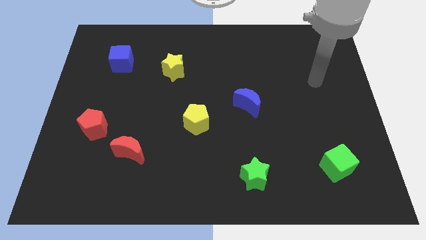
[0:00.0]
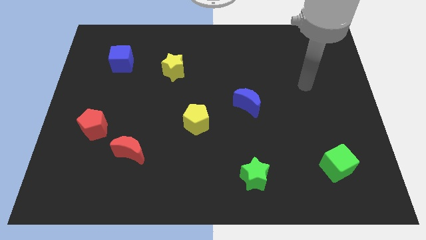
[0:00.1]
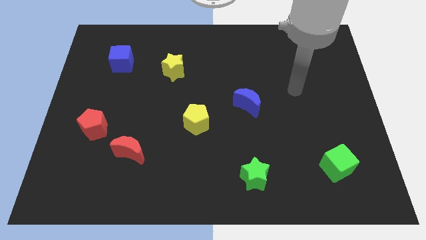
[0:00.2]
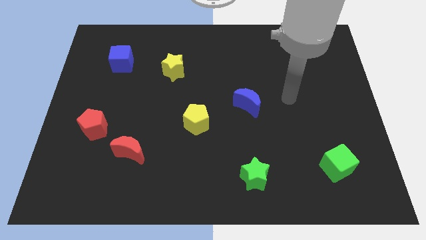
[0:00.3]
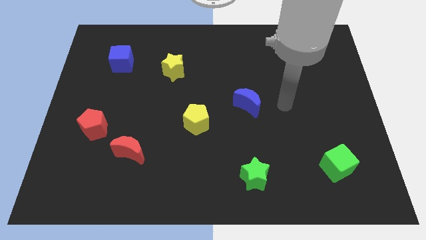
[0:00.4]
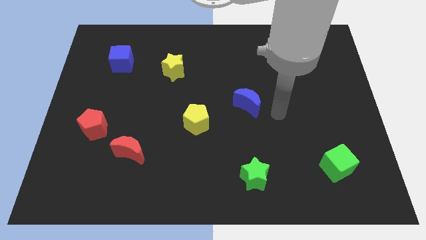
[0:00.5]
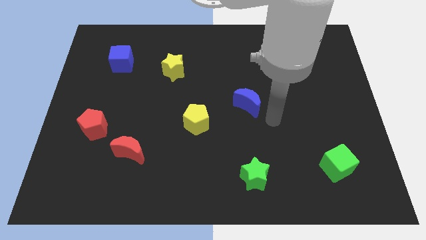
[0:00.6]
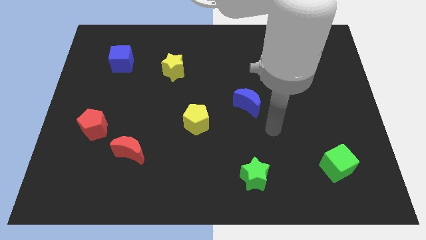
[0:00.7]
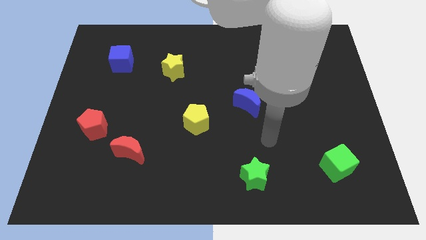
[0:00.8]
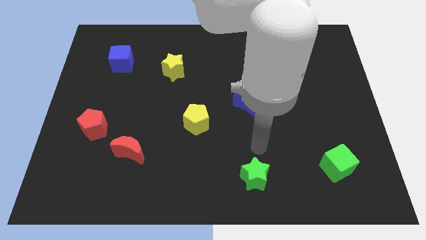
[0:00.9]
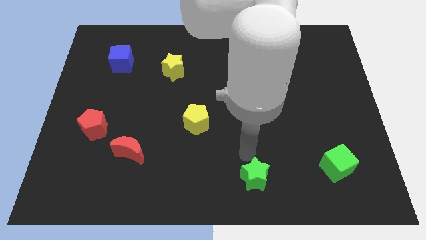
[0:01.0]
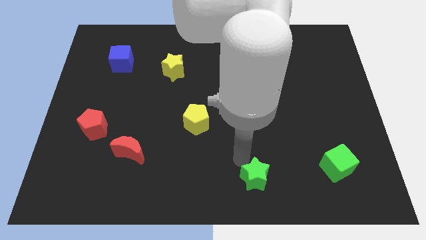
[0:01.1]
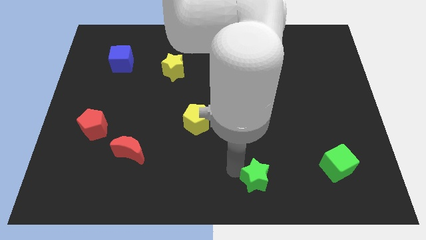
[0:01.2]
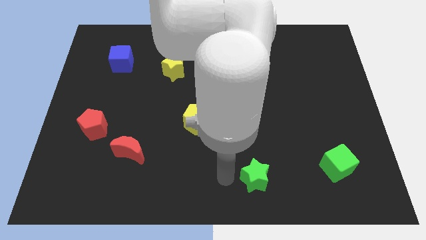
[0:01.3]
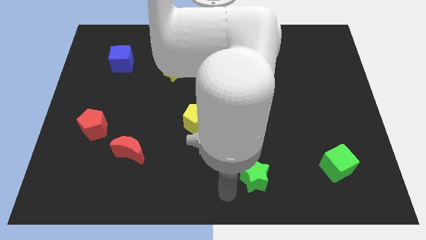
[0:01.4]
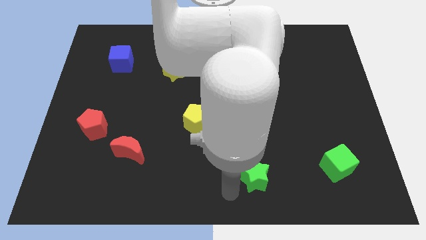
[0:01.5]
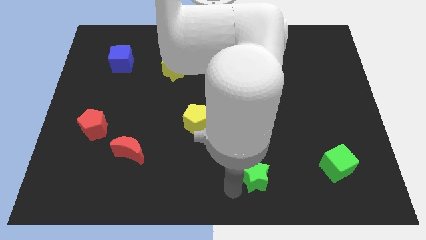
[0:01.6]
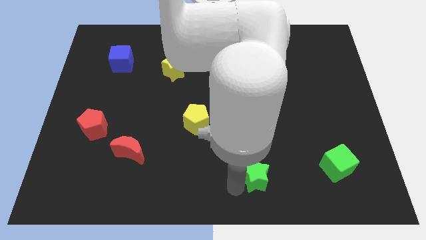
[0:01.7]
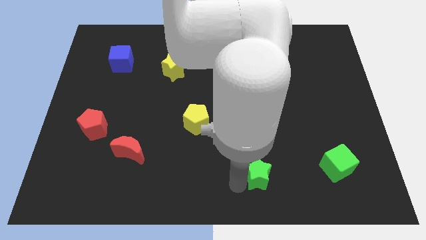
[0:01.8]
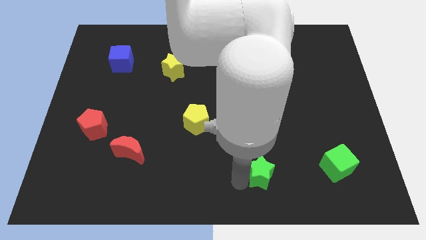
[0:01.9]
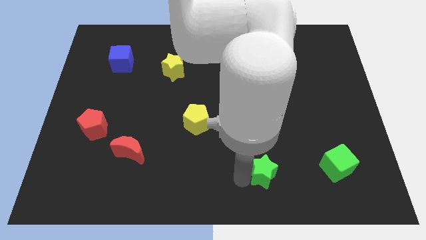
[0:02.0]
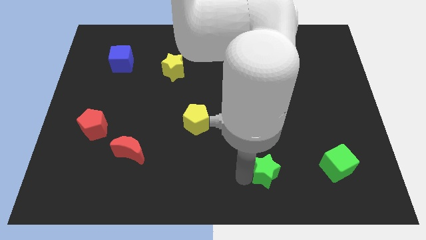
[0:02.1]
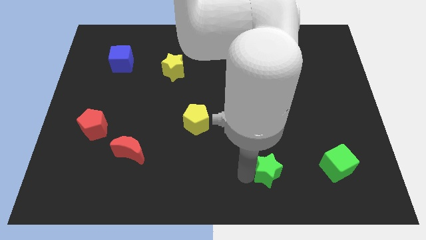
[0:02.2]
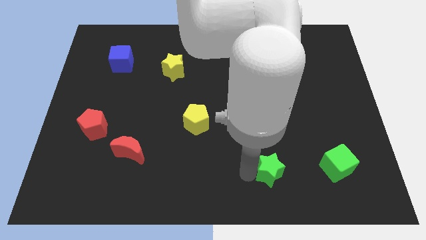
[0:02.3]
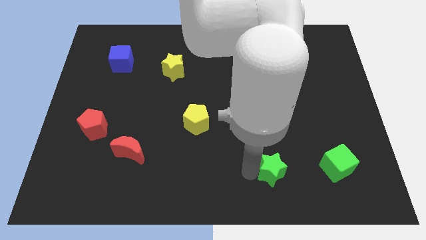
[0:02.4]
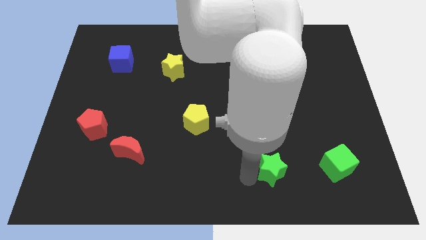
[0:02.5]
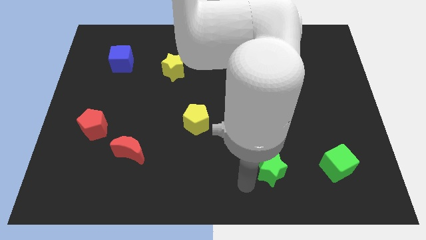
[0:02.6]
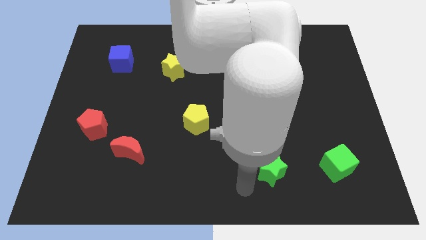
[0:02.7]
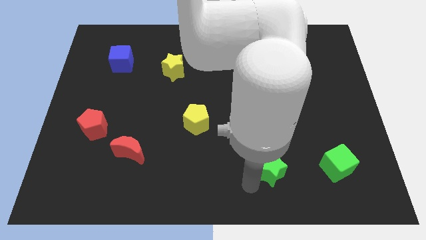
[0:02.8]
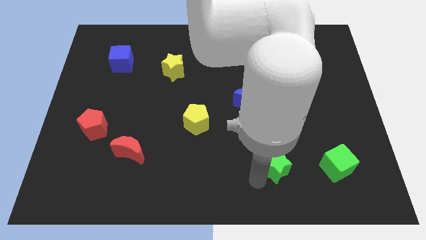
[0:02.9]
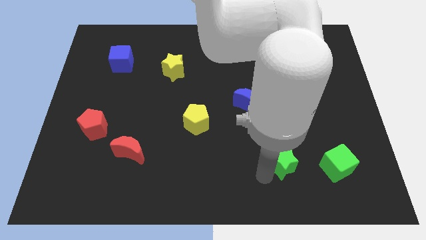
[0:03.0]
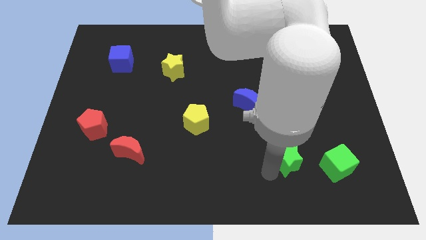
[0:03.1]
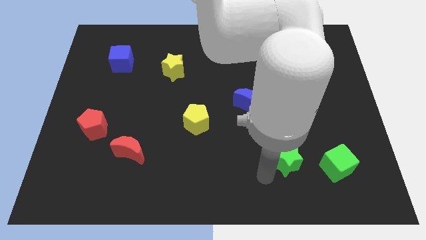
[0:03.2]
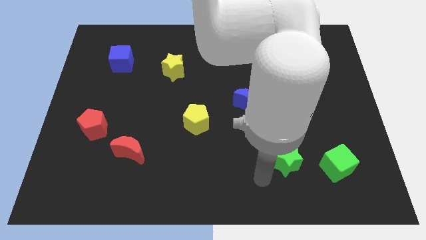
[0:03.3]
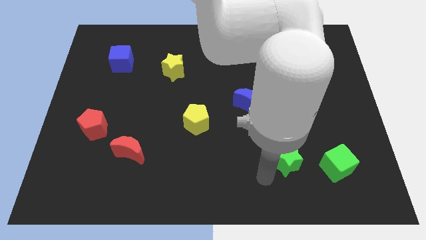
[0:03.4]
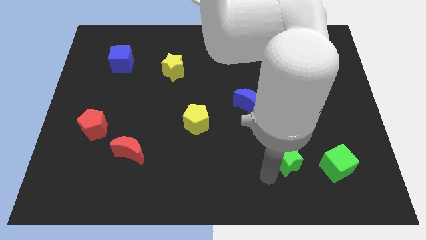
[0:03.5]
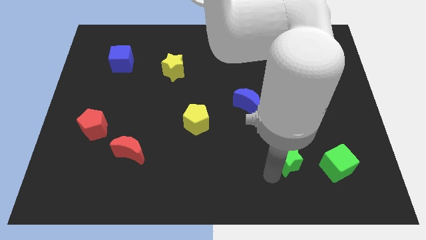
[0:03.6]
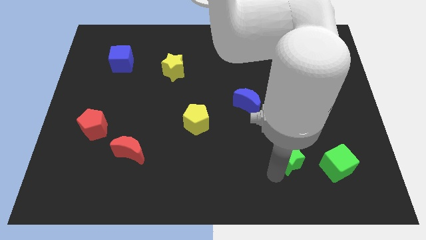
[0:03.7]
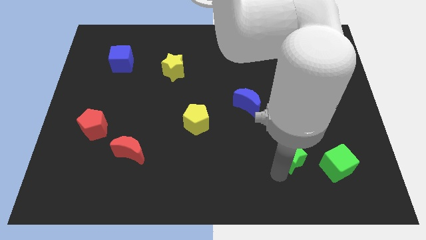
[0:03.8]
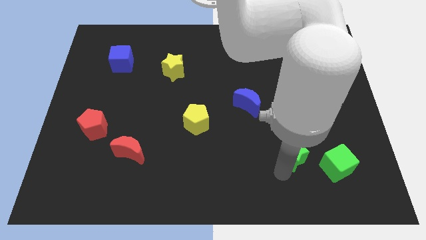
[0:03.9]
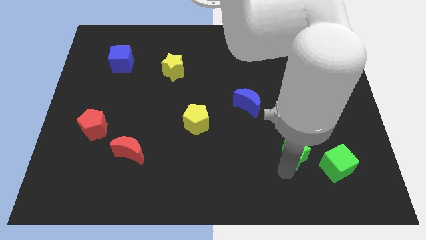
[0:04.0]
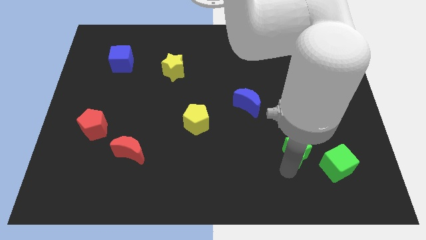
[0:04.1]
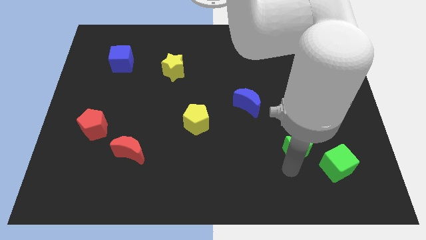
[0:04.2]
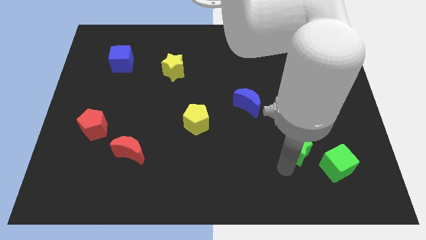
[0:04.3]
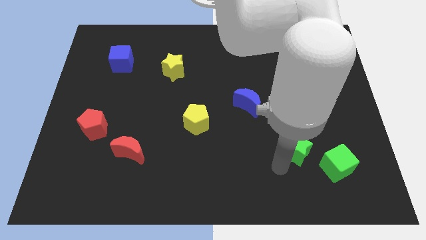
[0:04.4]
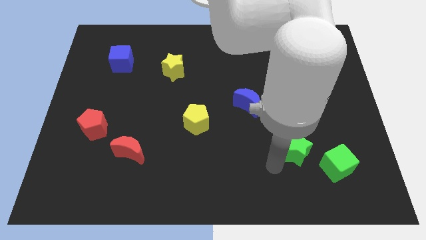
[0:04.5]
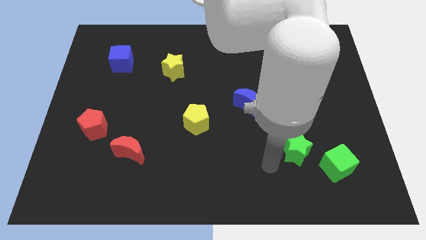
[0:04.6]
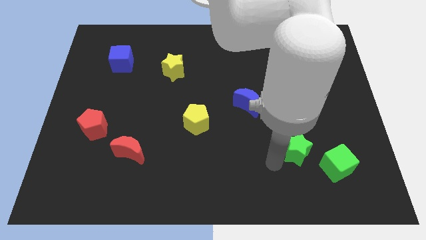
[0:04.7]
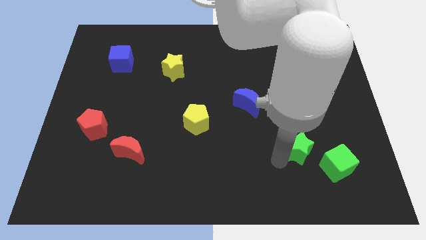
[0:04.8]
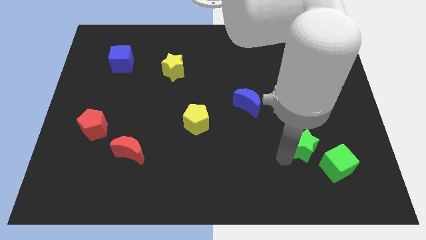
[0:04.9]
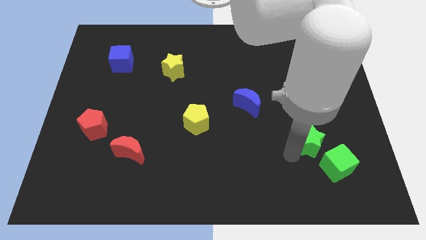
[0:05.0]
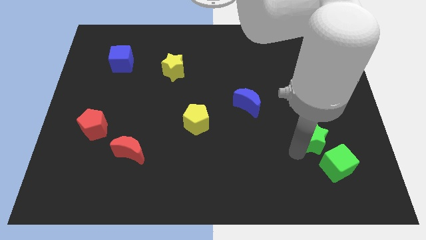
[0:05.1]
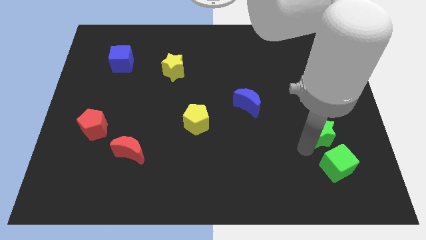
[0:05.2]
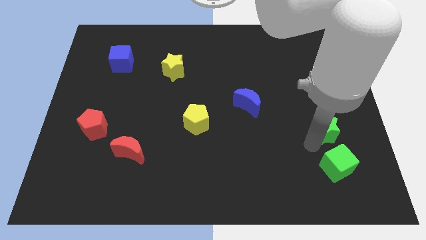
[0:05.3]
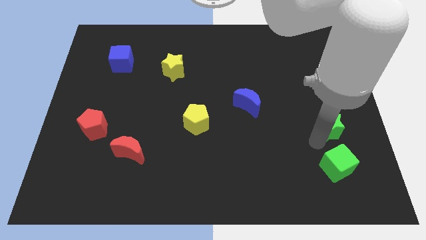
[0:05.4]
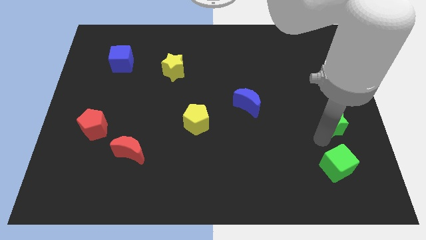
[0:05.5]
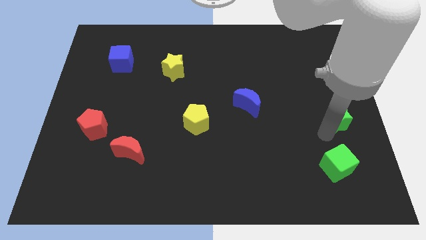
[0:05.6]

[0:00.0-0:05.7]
push the green star to the right side
